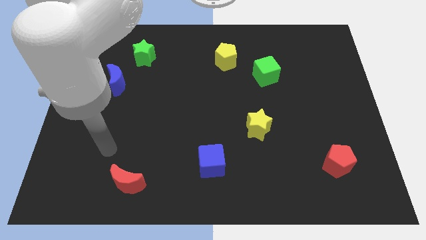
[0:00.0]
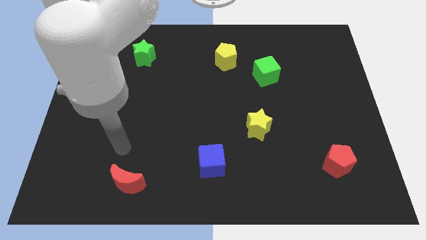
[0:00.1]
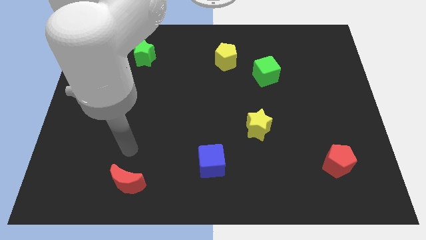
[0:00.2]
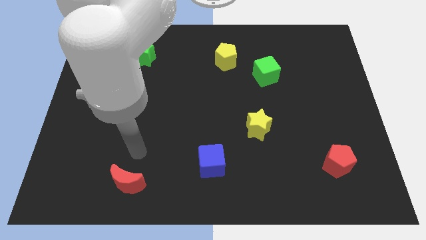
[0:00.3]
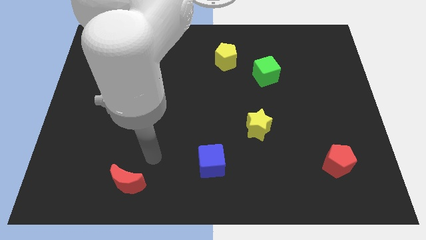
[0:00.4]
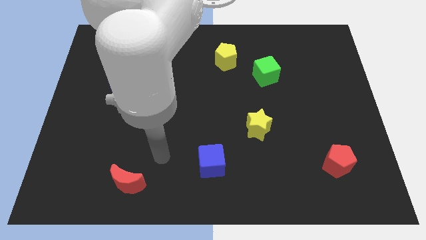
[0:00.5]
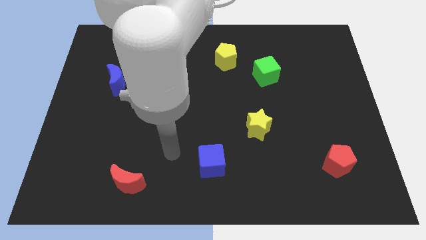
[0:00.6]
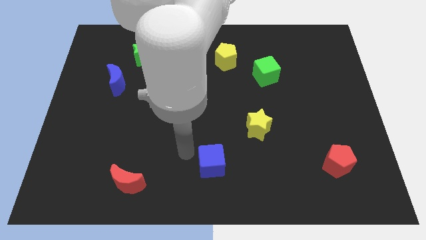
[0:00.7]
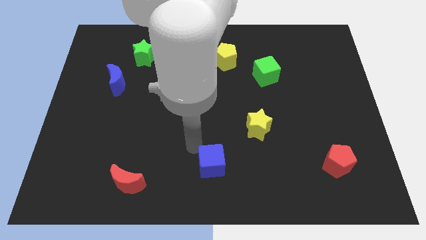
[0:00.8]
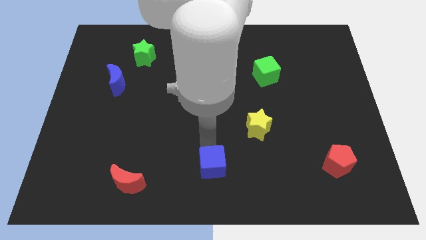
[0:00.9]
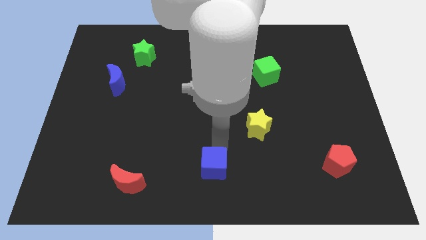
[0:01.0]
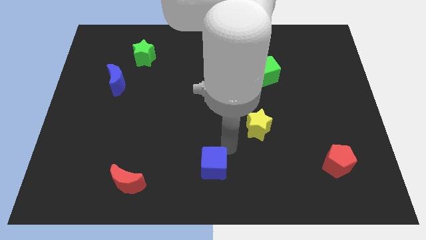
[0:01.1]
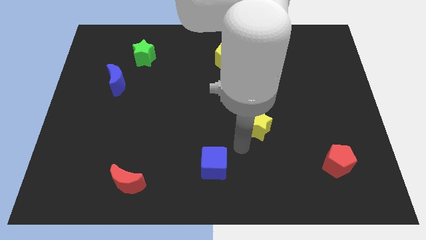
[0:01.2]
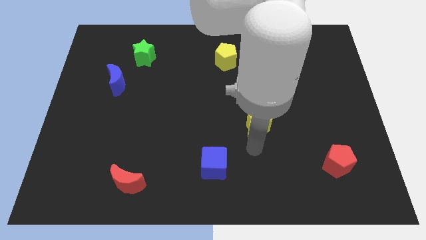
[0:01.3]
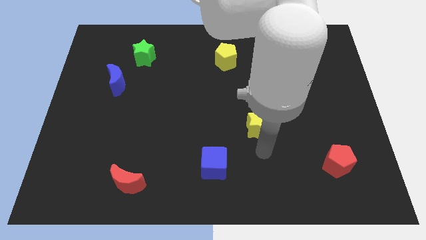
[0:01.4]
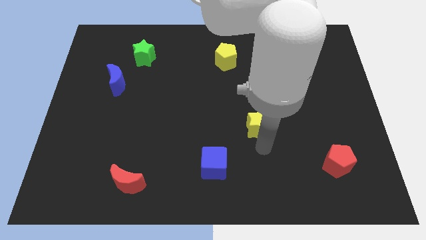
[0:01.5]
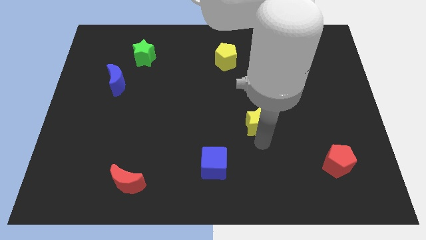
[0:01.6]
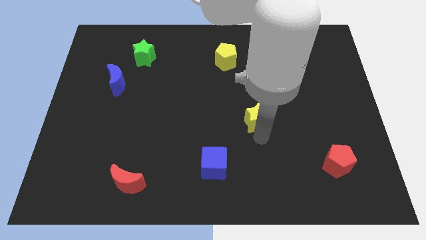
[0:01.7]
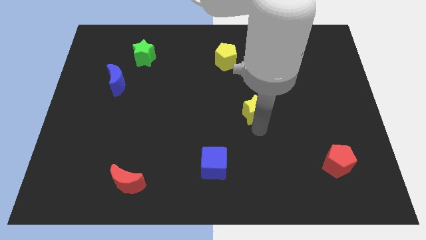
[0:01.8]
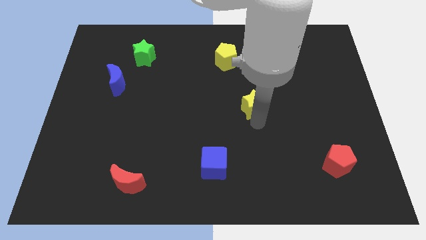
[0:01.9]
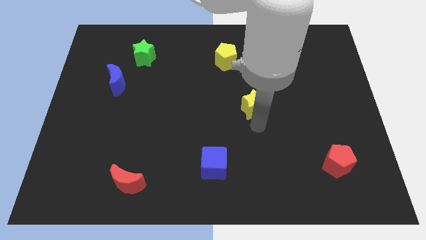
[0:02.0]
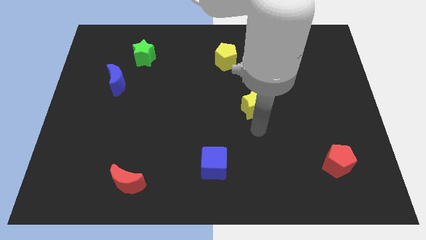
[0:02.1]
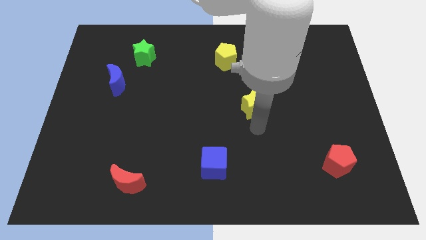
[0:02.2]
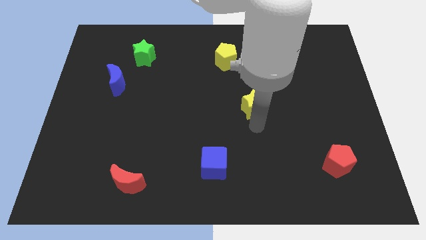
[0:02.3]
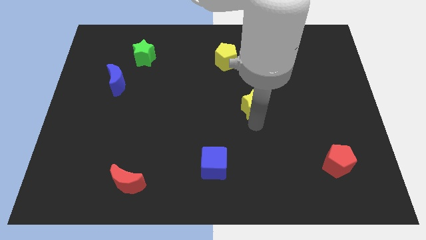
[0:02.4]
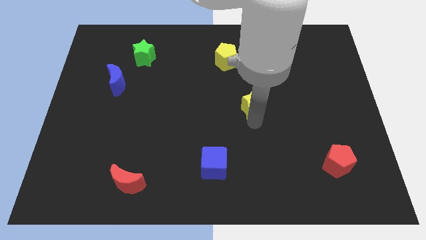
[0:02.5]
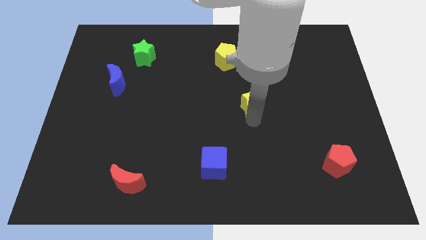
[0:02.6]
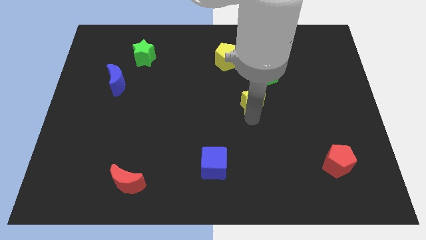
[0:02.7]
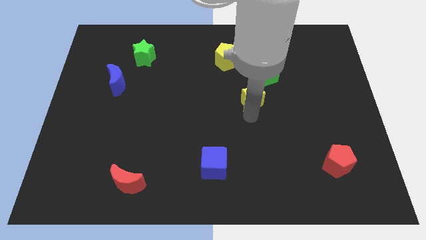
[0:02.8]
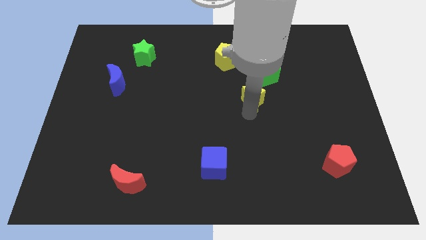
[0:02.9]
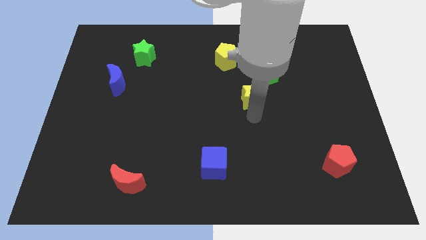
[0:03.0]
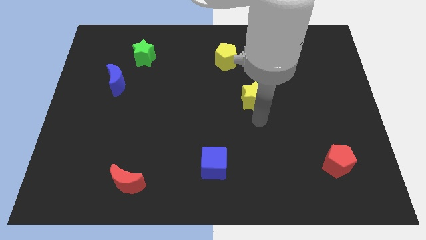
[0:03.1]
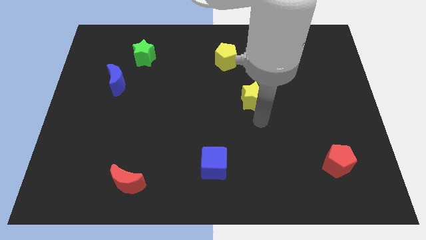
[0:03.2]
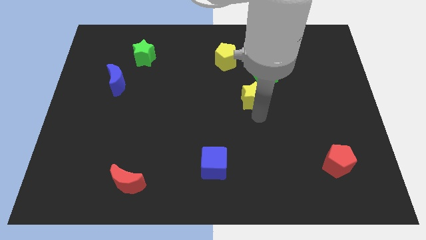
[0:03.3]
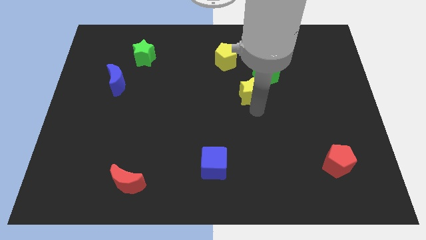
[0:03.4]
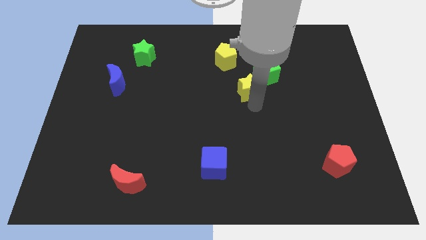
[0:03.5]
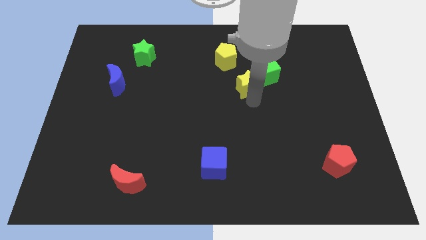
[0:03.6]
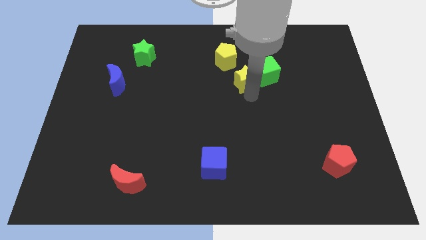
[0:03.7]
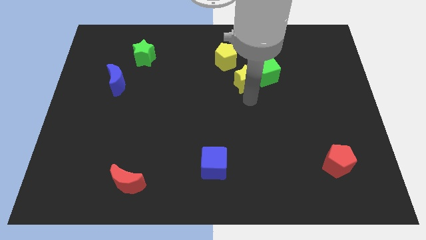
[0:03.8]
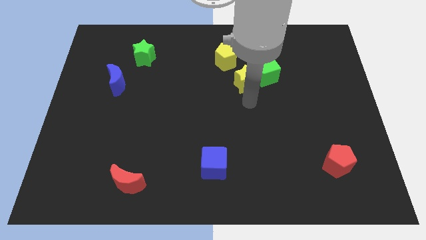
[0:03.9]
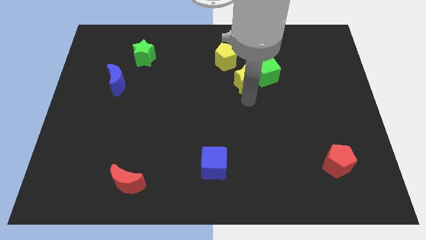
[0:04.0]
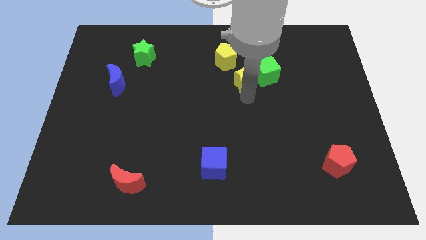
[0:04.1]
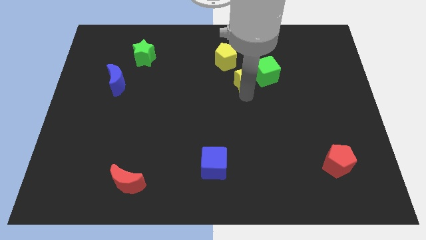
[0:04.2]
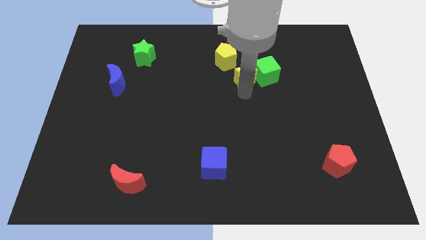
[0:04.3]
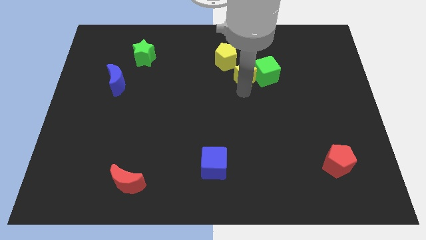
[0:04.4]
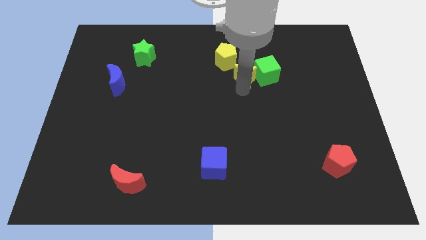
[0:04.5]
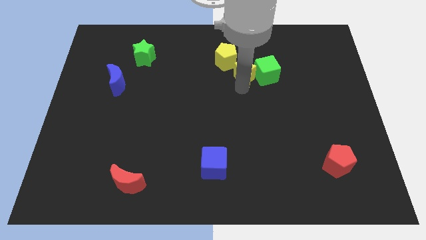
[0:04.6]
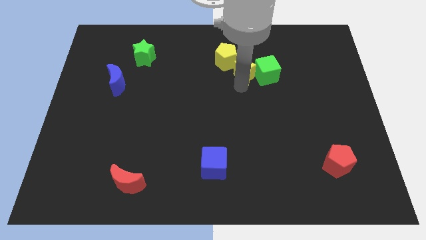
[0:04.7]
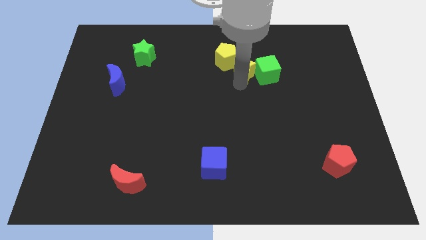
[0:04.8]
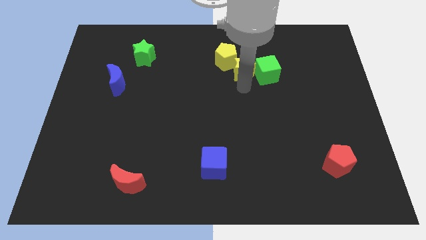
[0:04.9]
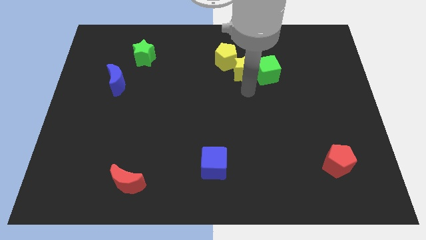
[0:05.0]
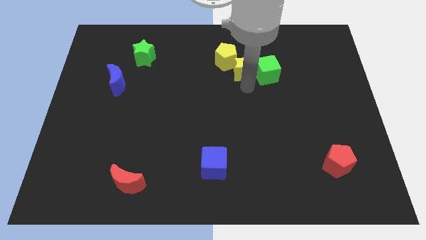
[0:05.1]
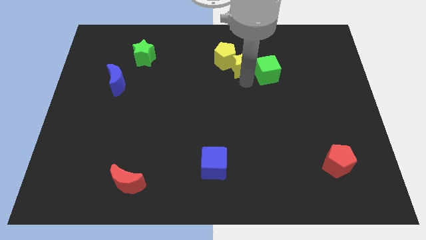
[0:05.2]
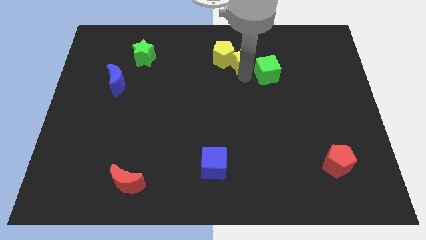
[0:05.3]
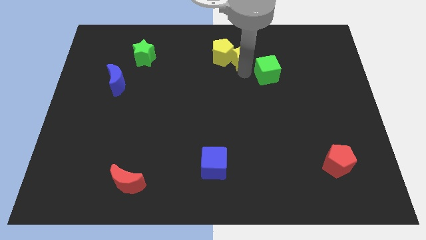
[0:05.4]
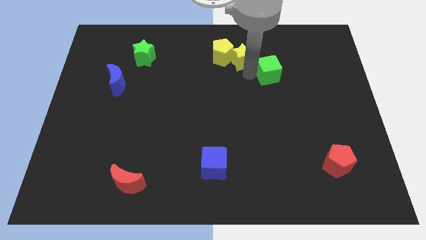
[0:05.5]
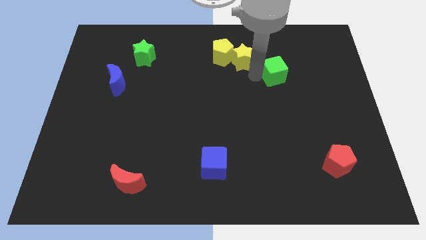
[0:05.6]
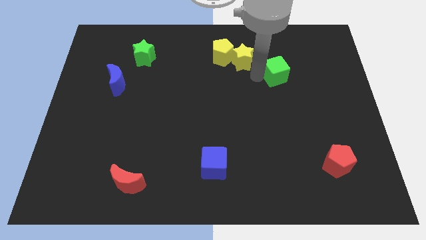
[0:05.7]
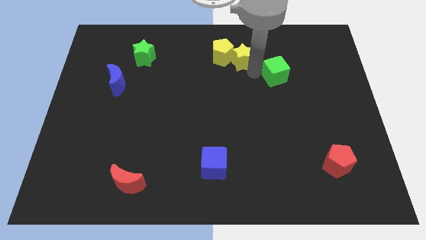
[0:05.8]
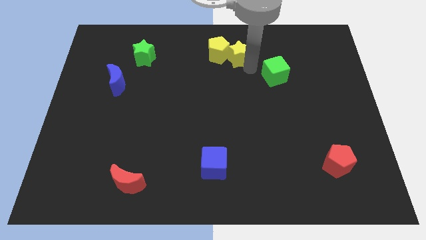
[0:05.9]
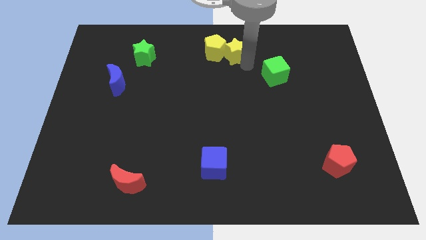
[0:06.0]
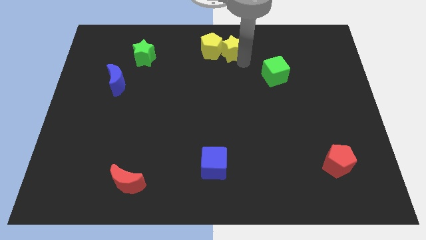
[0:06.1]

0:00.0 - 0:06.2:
move the yellow star to the towards your base

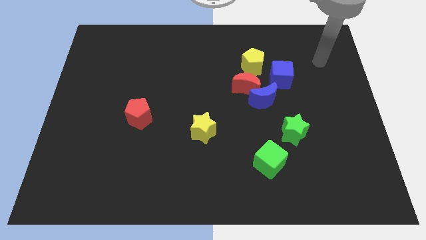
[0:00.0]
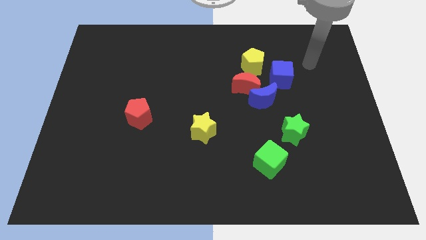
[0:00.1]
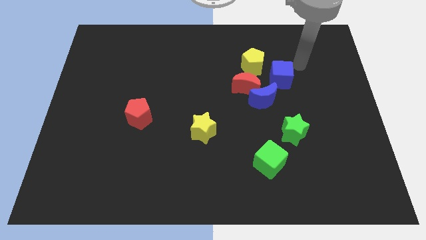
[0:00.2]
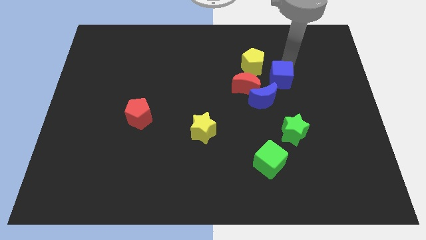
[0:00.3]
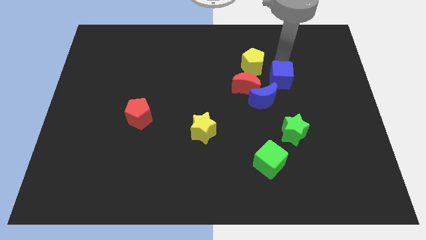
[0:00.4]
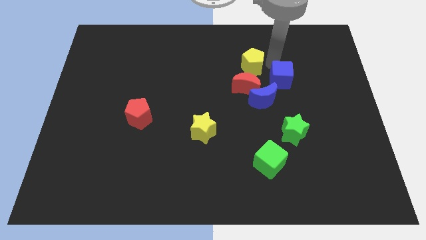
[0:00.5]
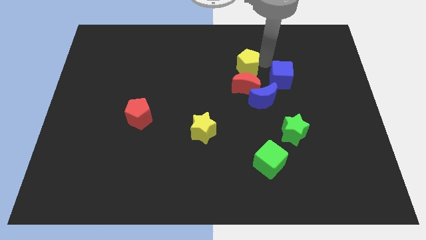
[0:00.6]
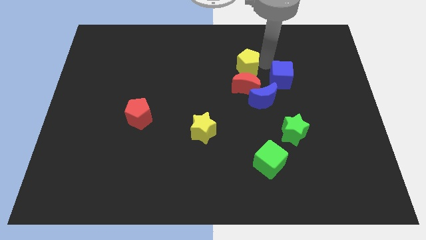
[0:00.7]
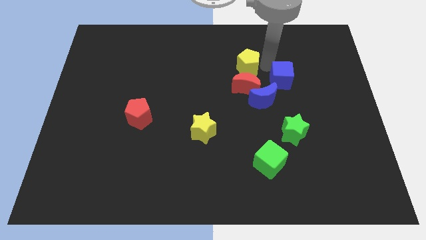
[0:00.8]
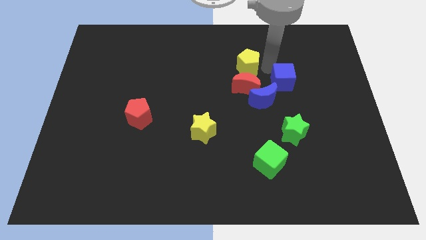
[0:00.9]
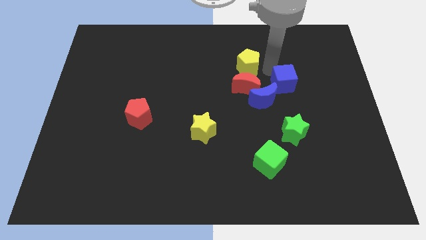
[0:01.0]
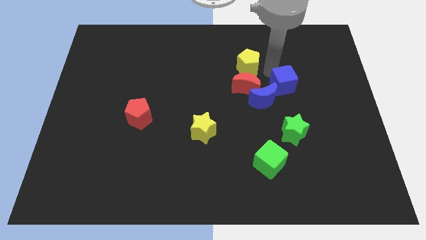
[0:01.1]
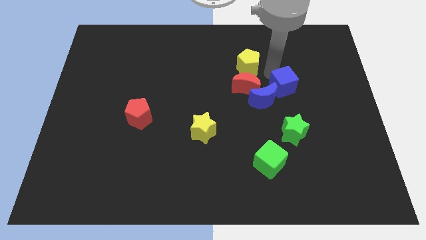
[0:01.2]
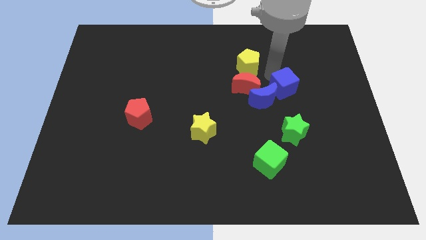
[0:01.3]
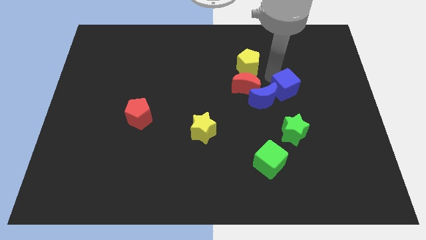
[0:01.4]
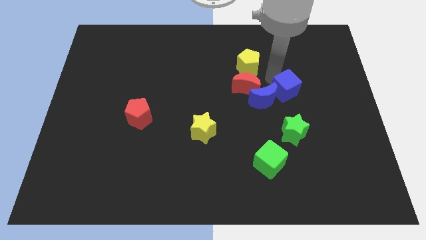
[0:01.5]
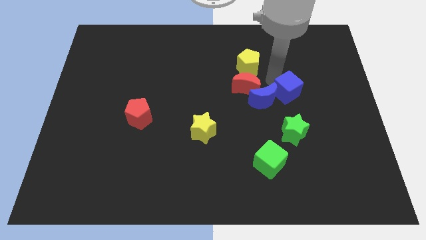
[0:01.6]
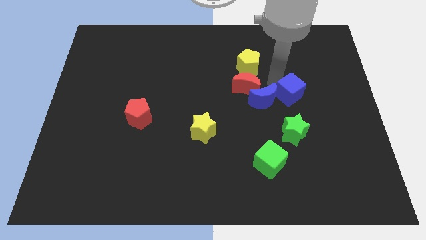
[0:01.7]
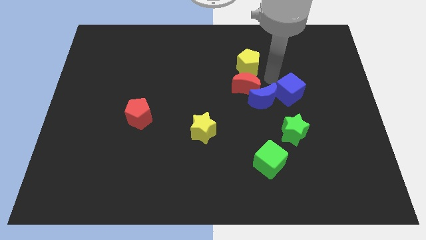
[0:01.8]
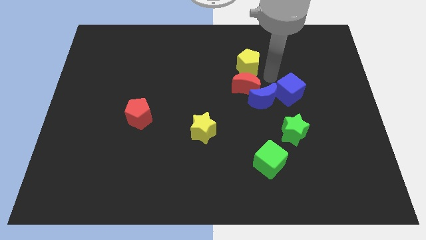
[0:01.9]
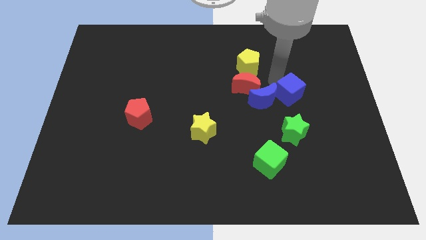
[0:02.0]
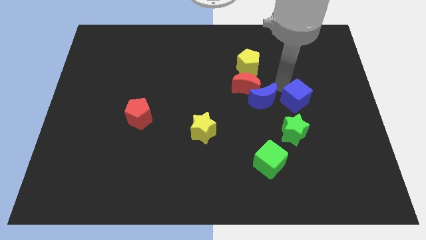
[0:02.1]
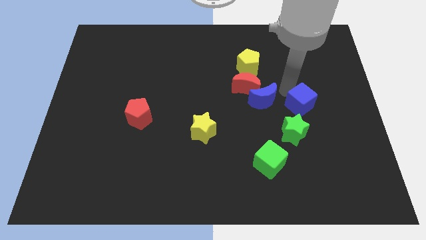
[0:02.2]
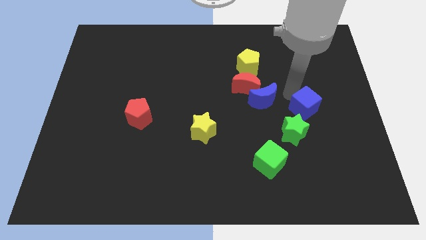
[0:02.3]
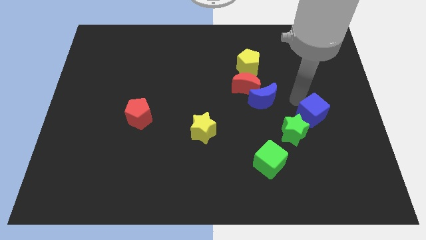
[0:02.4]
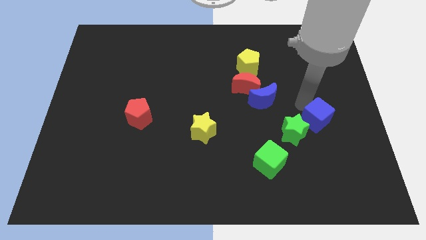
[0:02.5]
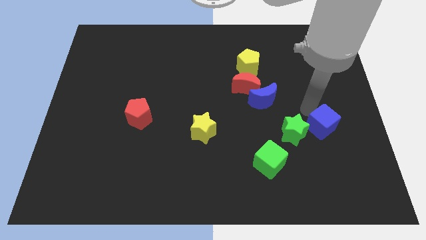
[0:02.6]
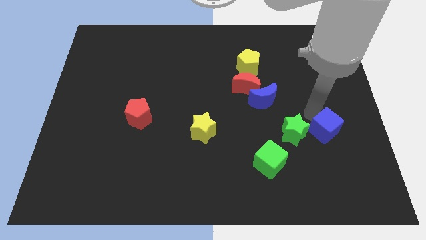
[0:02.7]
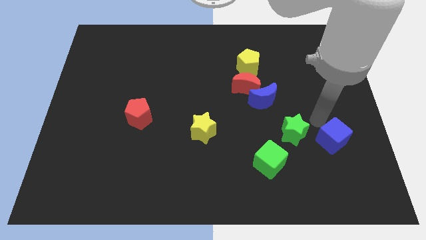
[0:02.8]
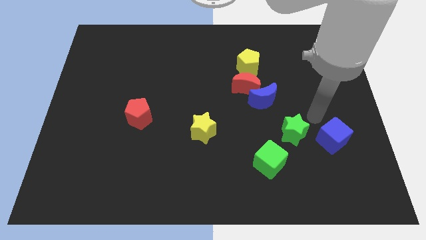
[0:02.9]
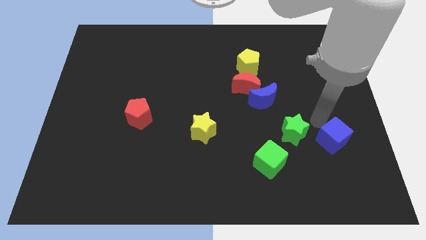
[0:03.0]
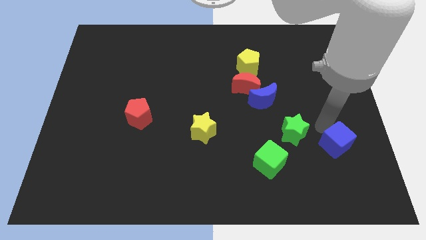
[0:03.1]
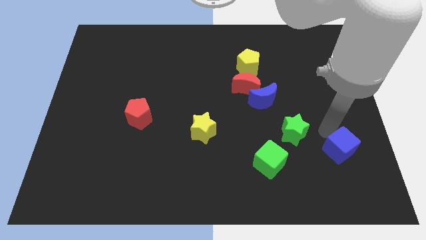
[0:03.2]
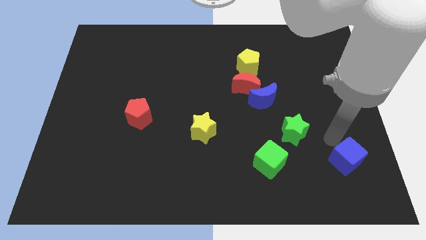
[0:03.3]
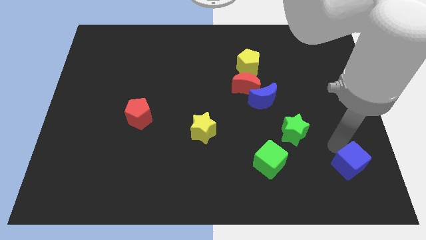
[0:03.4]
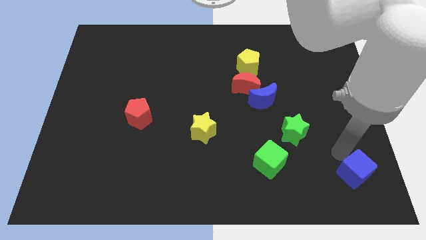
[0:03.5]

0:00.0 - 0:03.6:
slide the blue cube to the lower right corner
